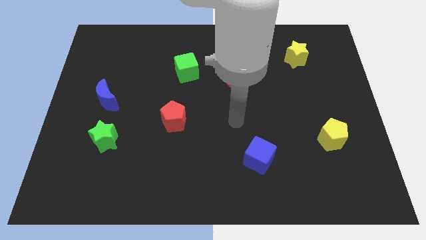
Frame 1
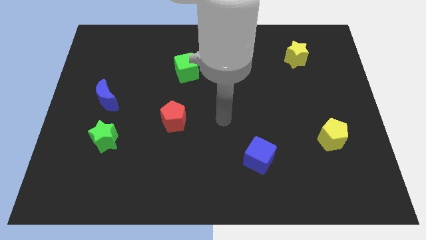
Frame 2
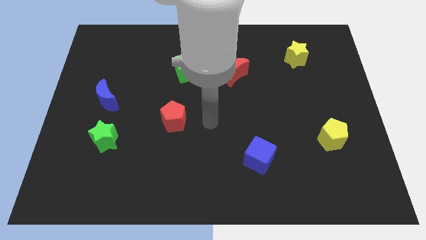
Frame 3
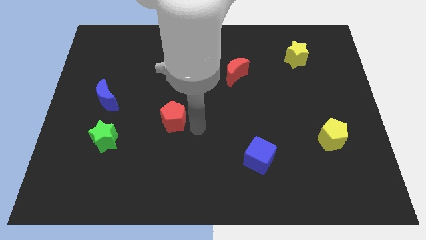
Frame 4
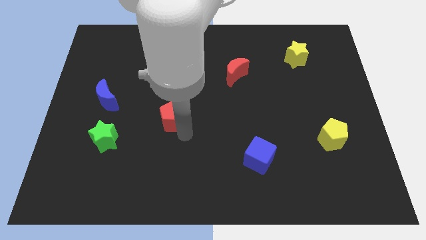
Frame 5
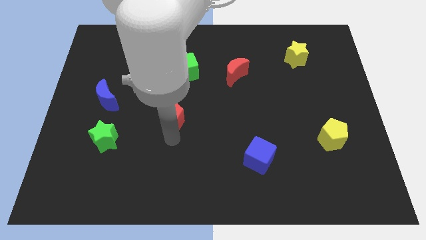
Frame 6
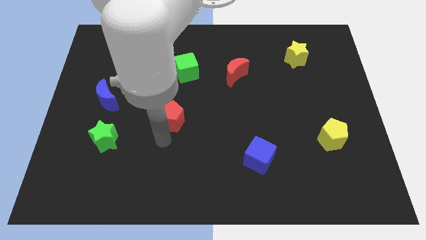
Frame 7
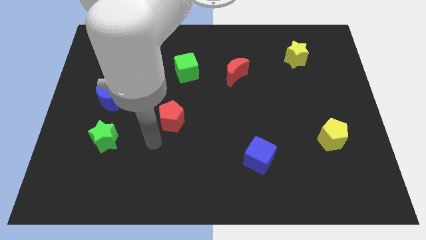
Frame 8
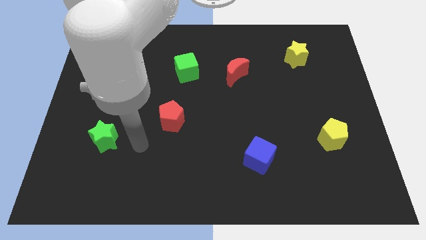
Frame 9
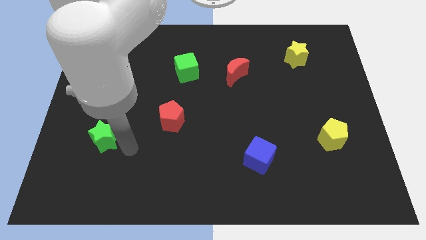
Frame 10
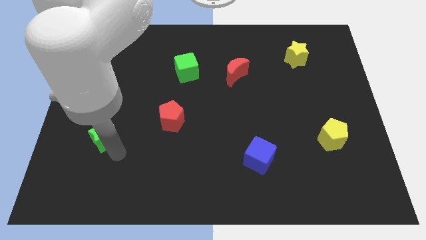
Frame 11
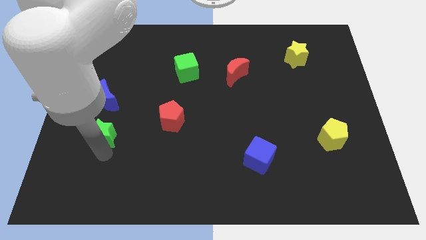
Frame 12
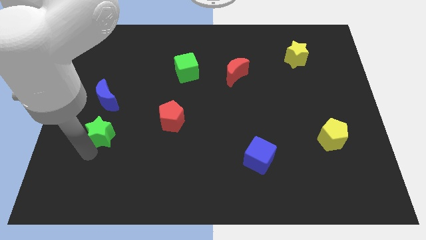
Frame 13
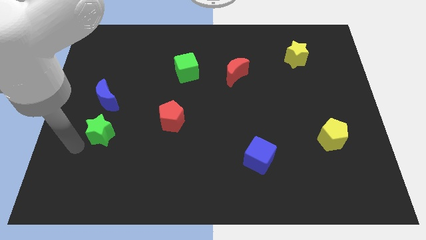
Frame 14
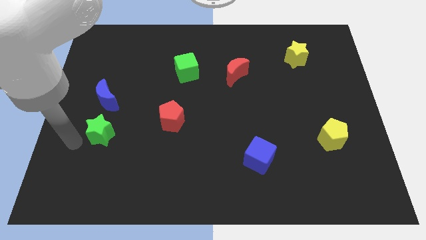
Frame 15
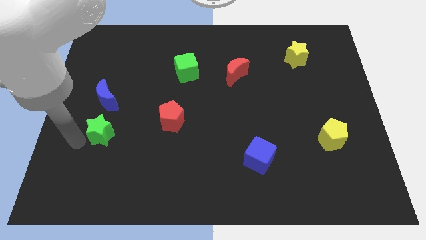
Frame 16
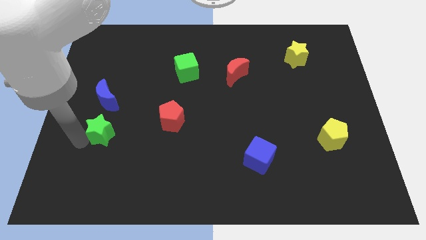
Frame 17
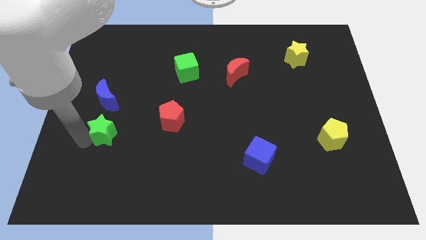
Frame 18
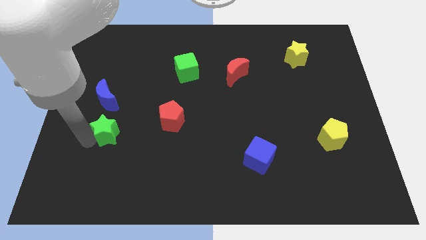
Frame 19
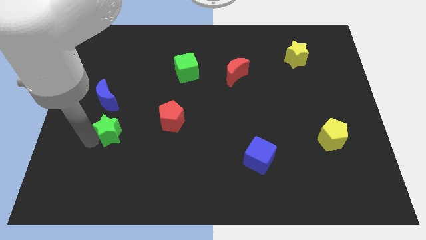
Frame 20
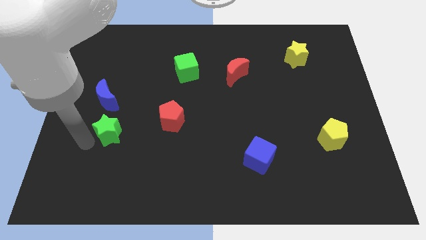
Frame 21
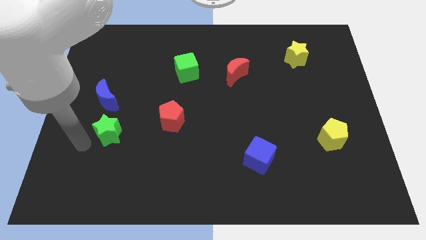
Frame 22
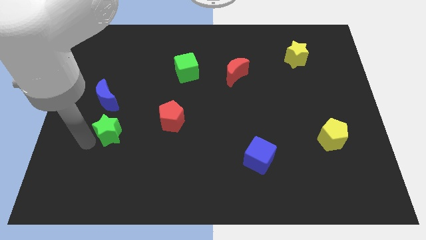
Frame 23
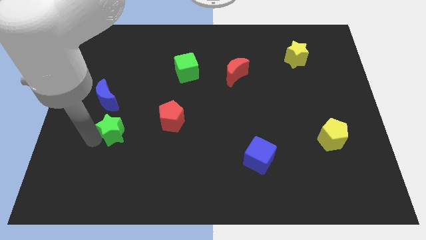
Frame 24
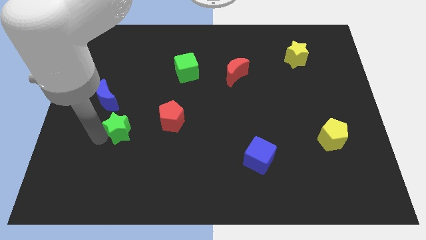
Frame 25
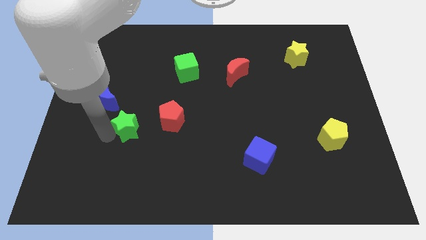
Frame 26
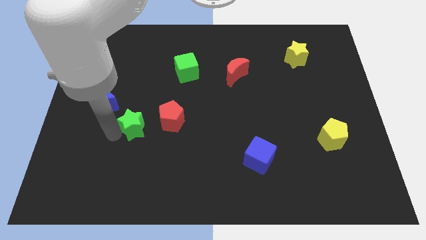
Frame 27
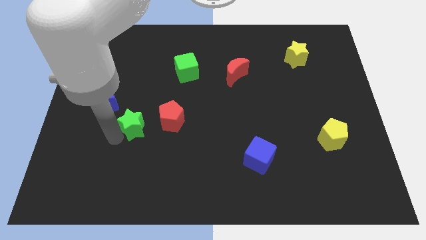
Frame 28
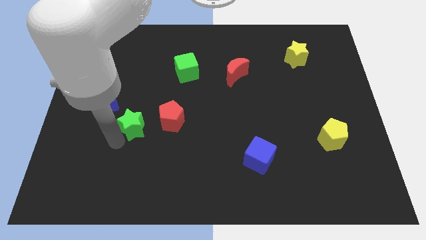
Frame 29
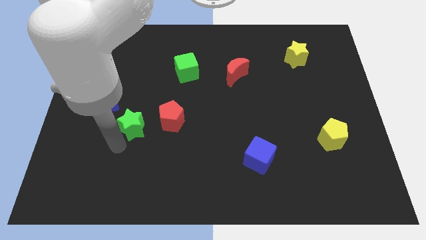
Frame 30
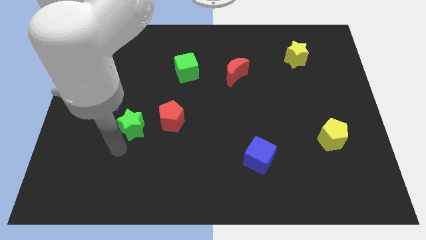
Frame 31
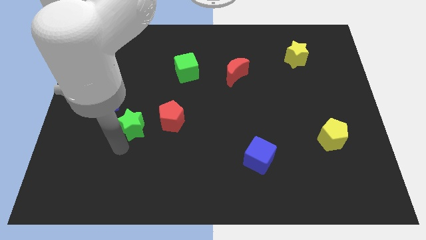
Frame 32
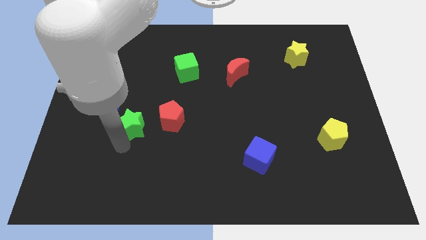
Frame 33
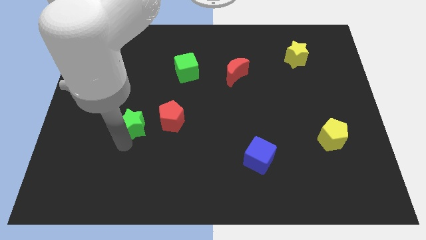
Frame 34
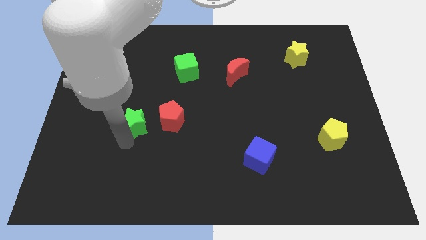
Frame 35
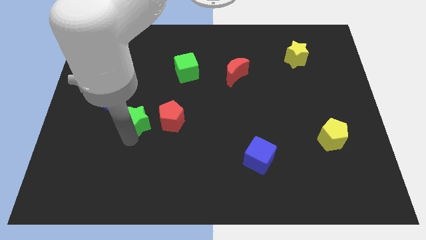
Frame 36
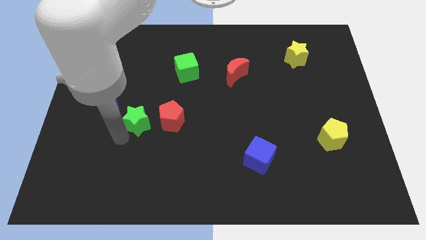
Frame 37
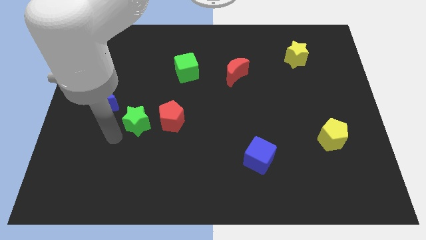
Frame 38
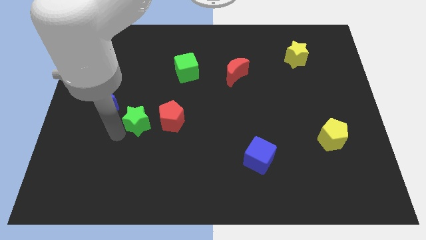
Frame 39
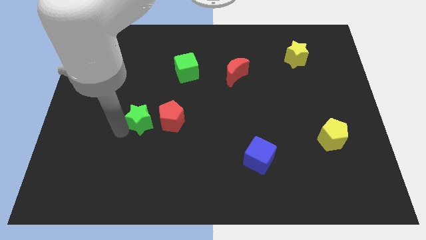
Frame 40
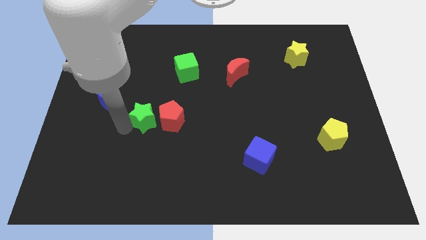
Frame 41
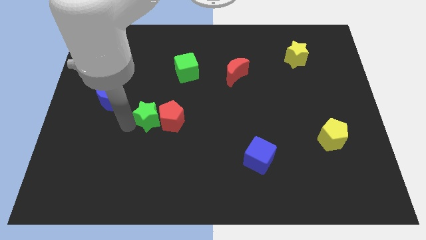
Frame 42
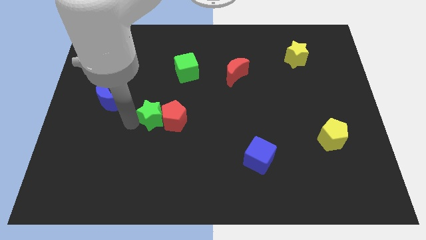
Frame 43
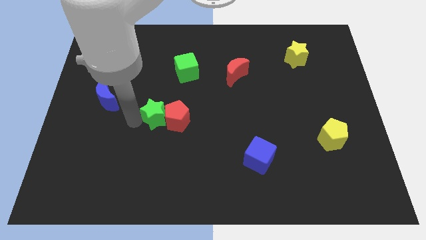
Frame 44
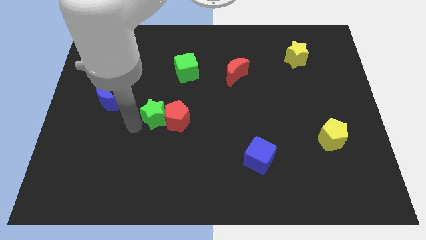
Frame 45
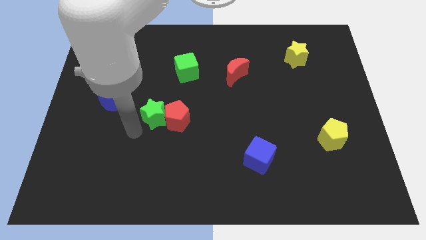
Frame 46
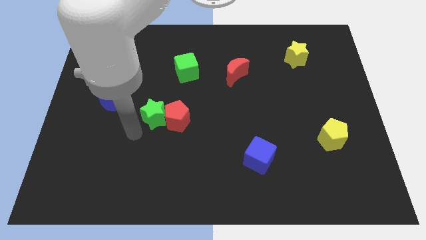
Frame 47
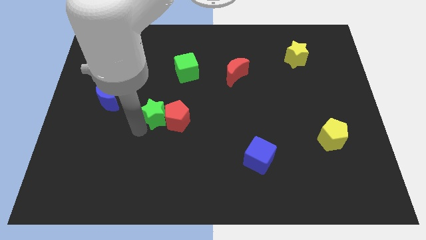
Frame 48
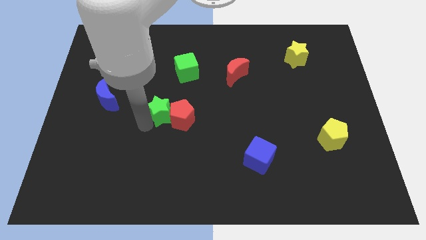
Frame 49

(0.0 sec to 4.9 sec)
move the green star to the center of the board

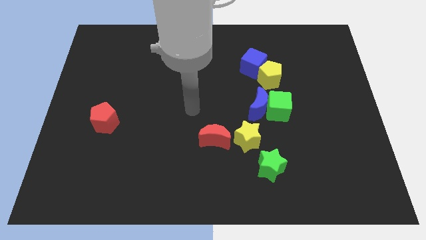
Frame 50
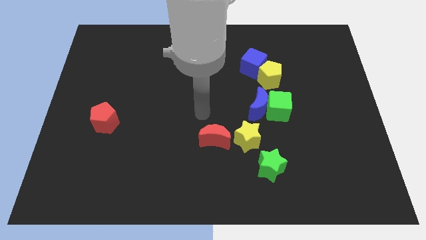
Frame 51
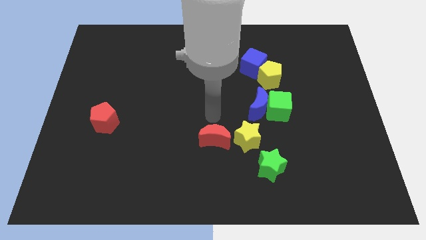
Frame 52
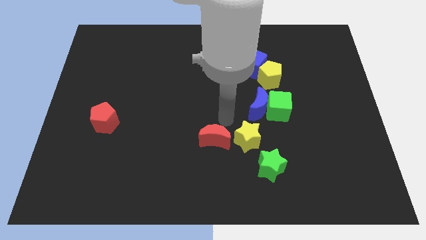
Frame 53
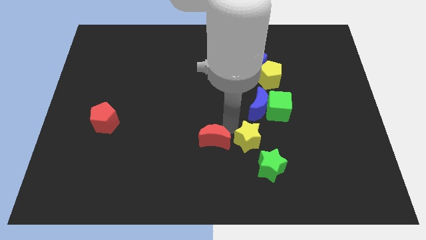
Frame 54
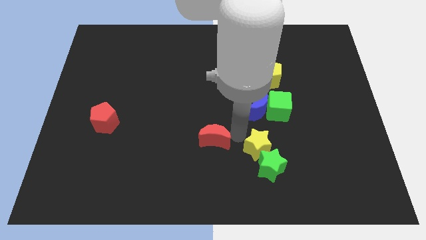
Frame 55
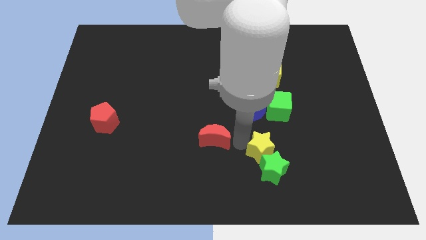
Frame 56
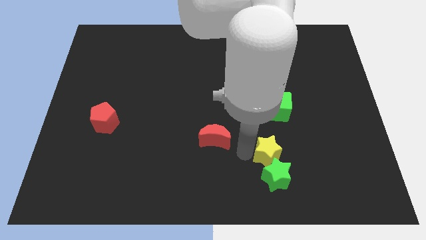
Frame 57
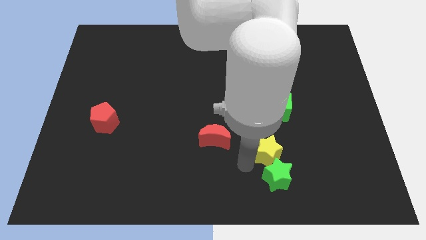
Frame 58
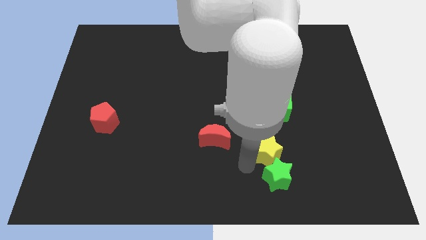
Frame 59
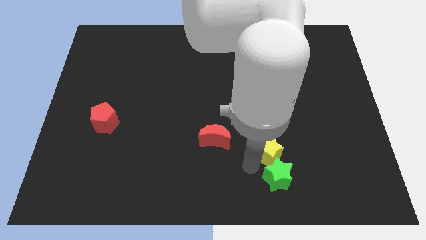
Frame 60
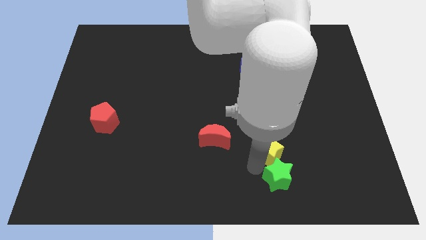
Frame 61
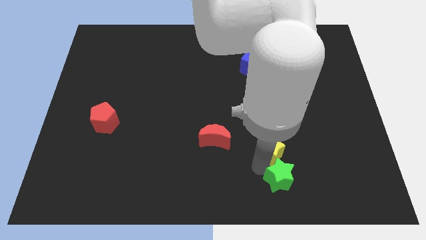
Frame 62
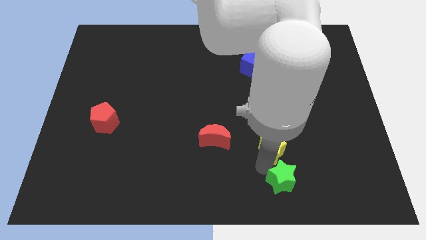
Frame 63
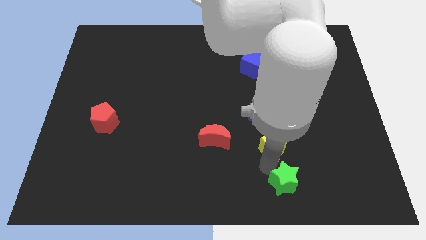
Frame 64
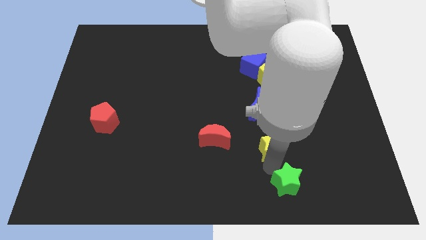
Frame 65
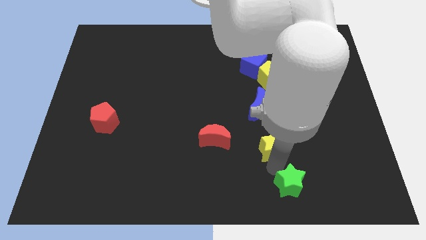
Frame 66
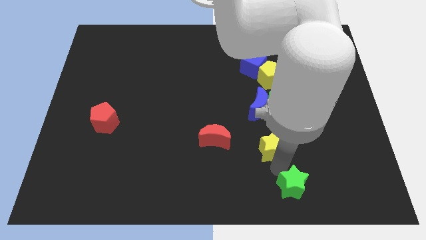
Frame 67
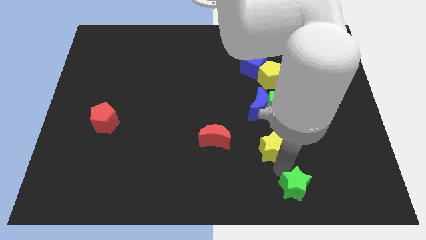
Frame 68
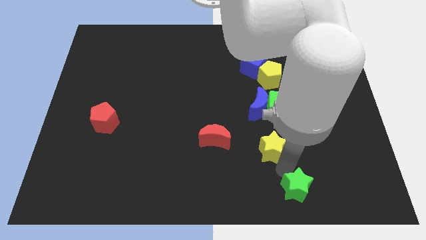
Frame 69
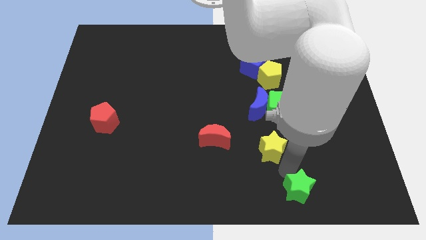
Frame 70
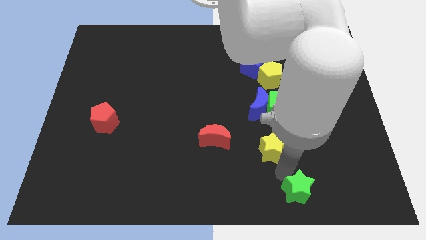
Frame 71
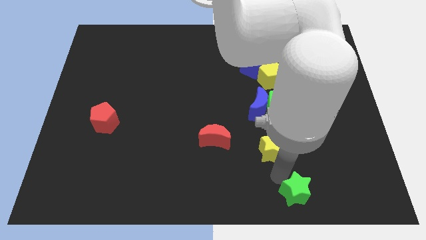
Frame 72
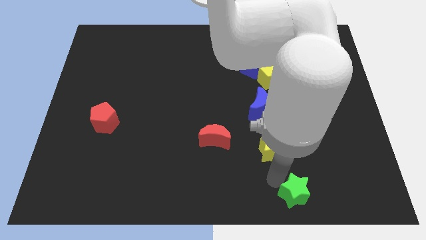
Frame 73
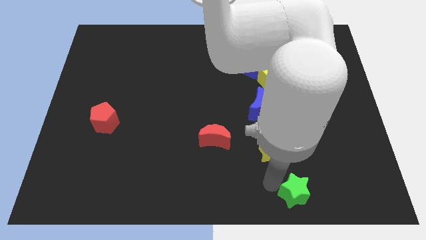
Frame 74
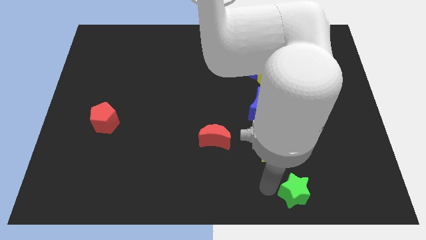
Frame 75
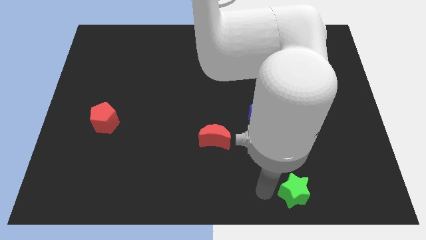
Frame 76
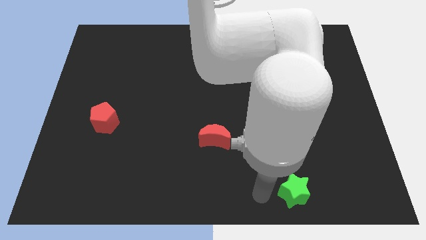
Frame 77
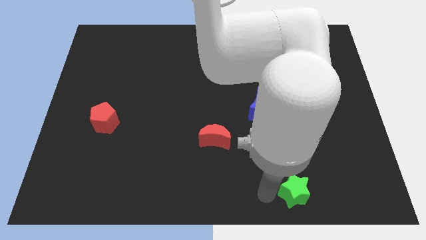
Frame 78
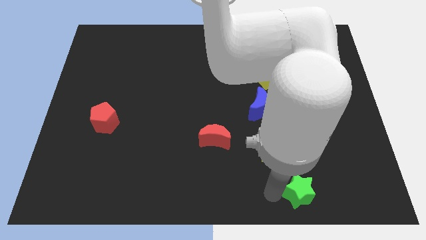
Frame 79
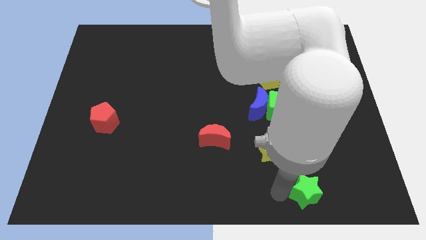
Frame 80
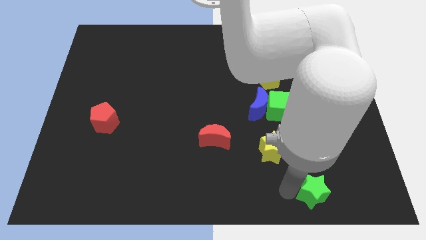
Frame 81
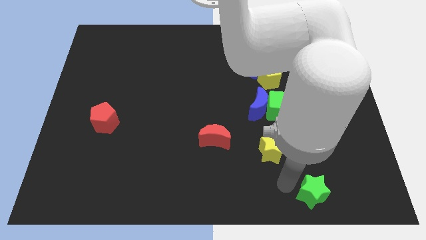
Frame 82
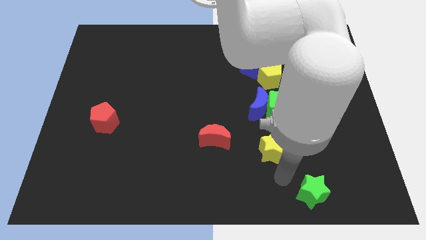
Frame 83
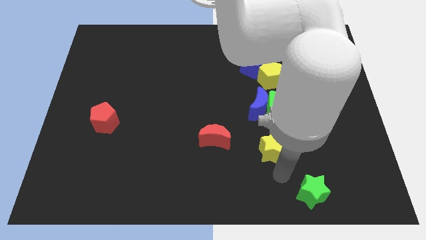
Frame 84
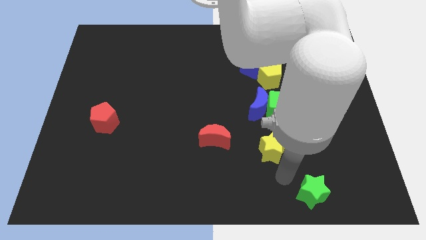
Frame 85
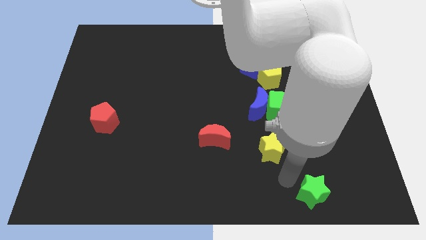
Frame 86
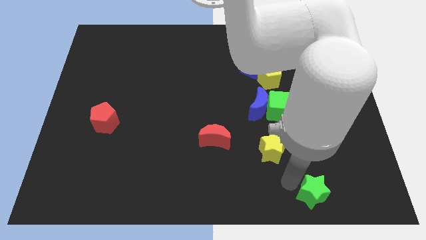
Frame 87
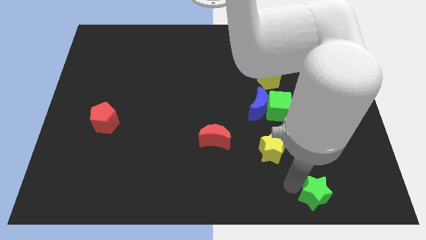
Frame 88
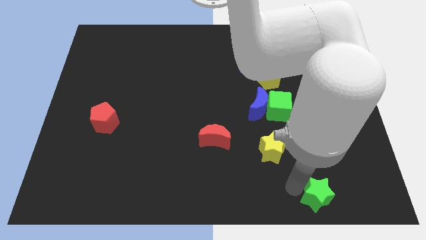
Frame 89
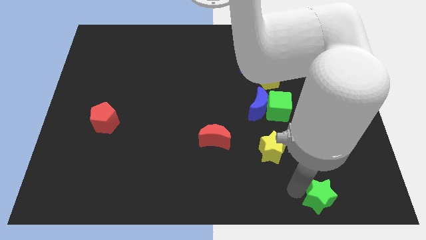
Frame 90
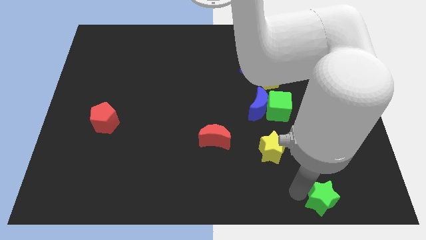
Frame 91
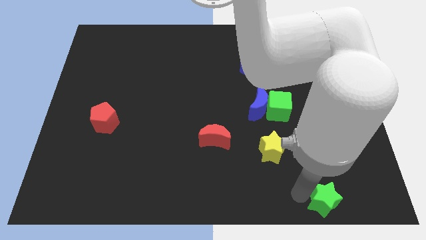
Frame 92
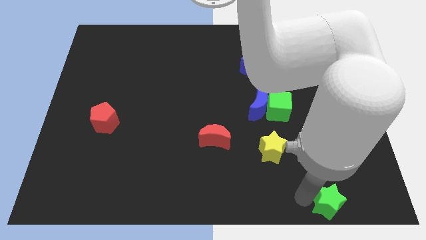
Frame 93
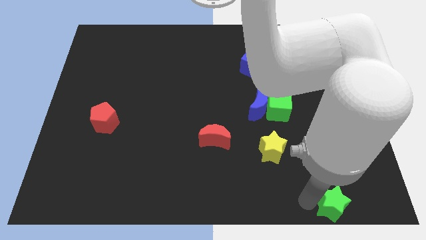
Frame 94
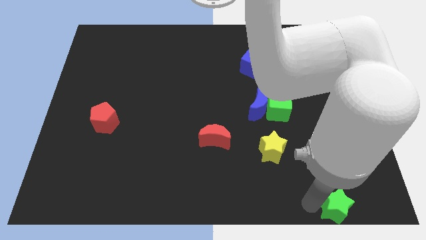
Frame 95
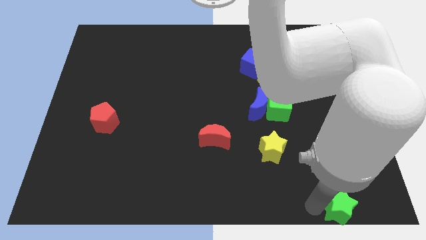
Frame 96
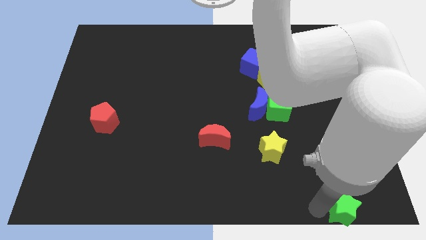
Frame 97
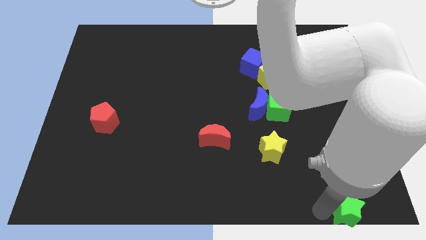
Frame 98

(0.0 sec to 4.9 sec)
slide the green star to the bottom right
